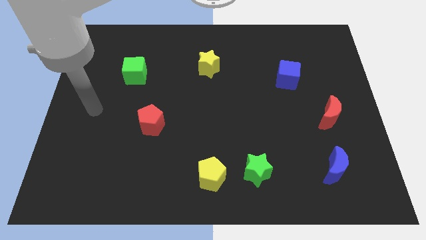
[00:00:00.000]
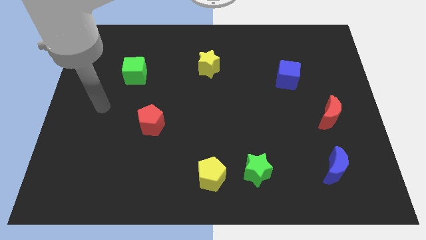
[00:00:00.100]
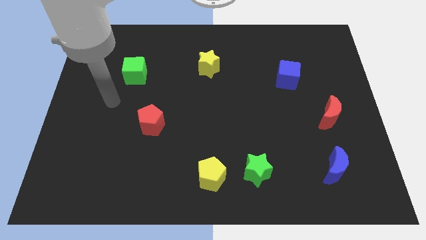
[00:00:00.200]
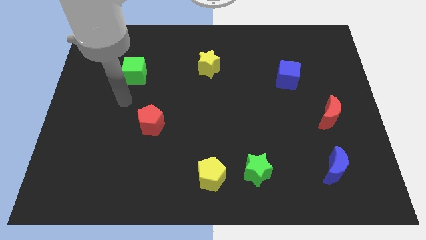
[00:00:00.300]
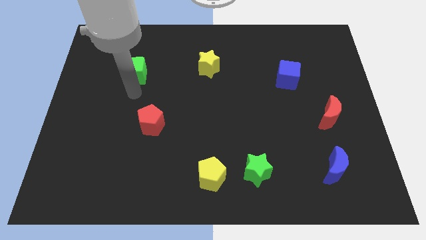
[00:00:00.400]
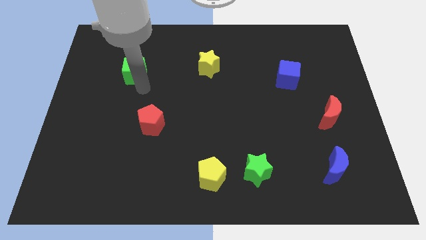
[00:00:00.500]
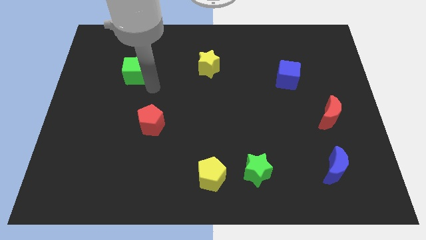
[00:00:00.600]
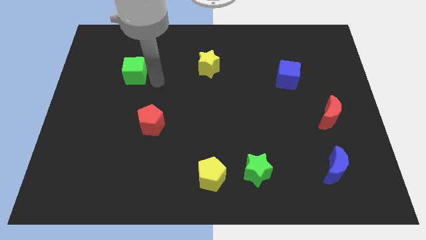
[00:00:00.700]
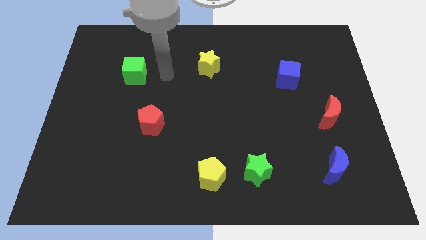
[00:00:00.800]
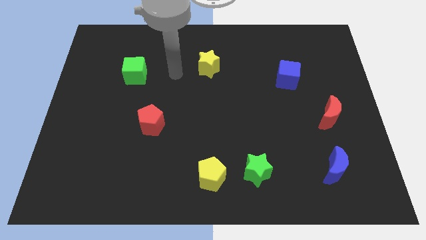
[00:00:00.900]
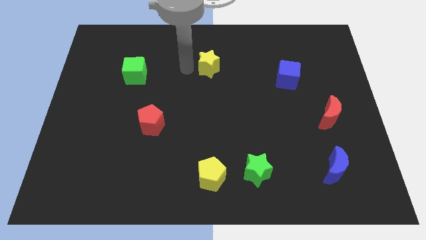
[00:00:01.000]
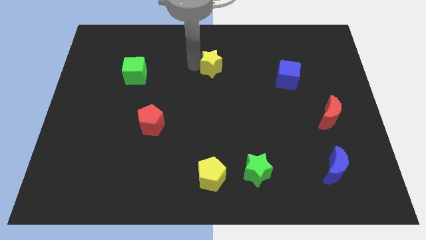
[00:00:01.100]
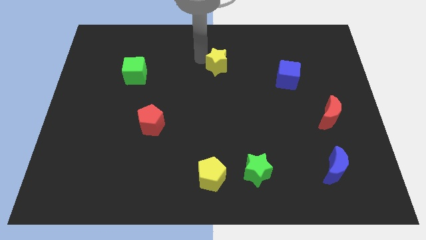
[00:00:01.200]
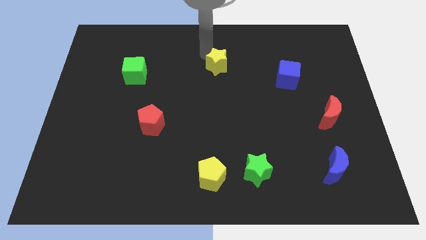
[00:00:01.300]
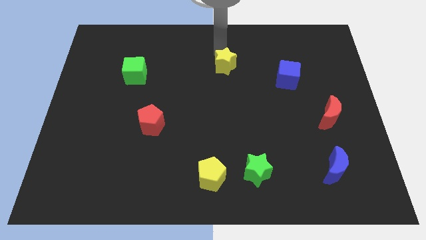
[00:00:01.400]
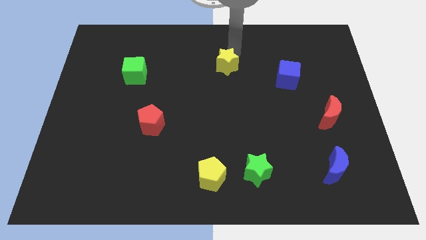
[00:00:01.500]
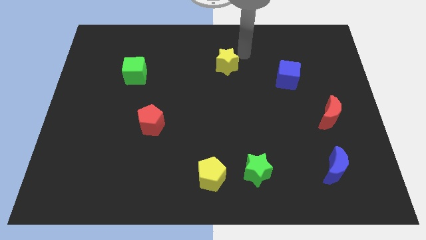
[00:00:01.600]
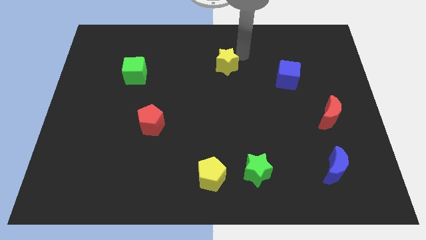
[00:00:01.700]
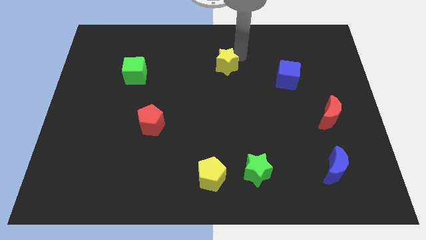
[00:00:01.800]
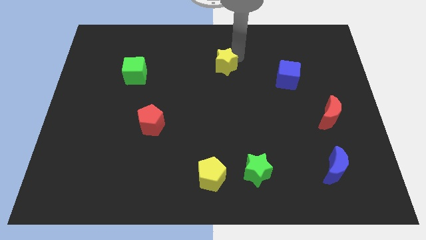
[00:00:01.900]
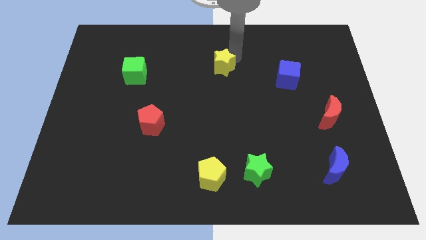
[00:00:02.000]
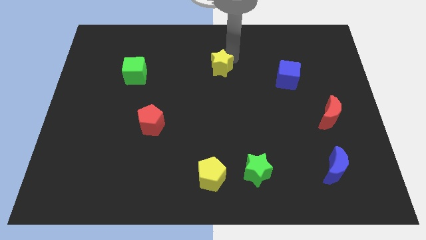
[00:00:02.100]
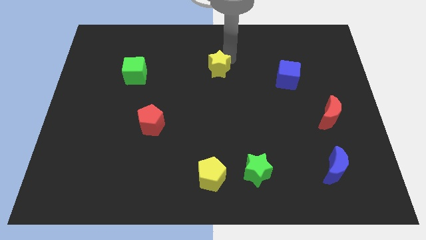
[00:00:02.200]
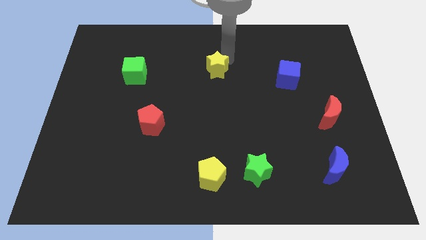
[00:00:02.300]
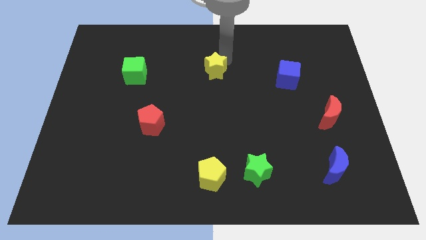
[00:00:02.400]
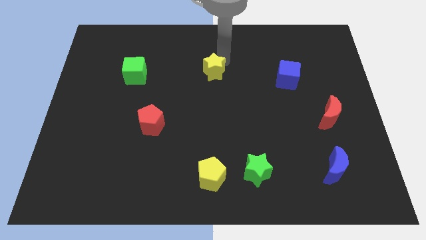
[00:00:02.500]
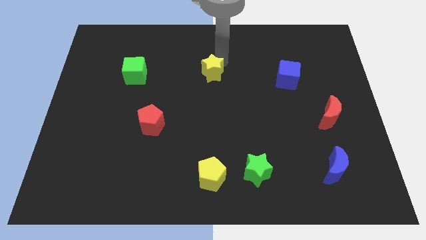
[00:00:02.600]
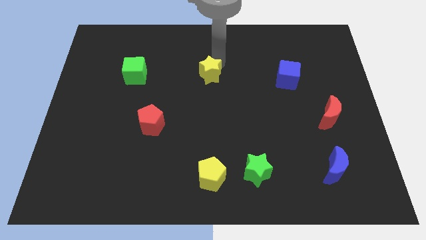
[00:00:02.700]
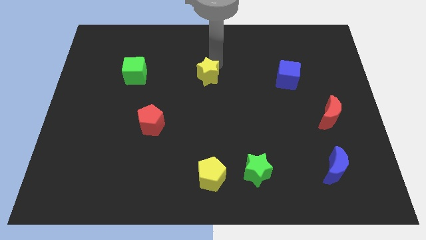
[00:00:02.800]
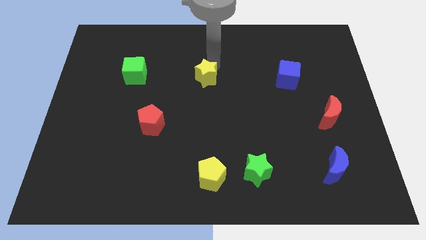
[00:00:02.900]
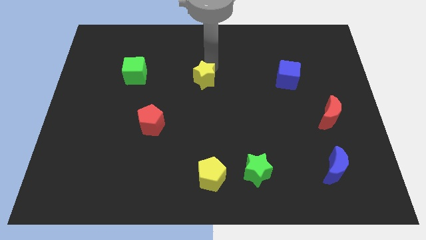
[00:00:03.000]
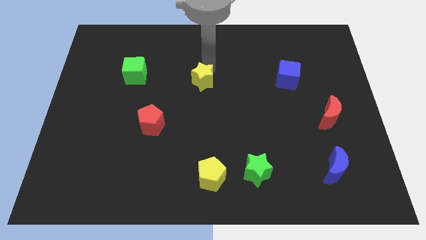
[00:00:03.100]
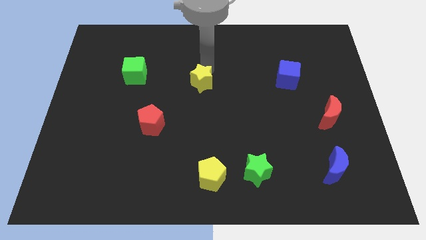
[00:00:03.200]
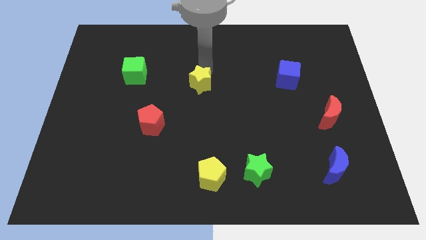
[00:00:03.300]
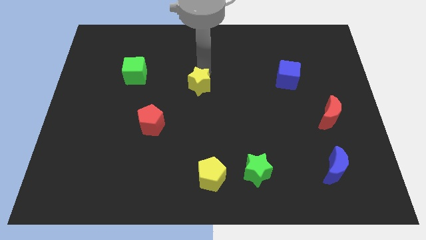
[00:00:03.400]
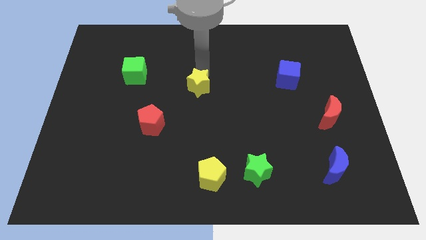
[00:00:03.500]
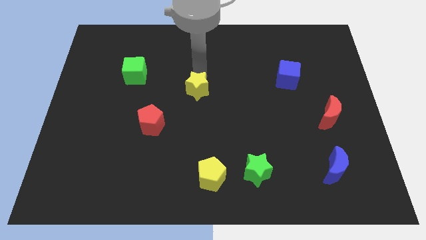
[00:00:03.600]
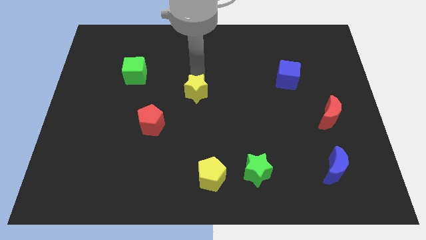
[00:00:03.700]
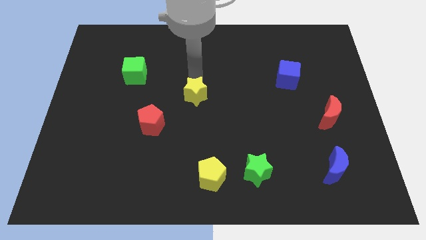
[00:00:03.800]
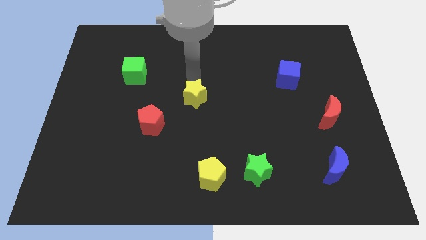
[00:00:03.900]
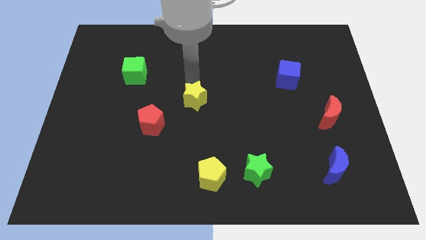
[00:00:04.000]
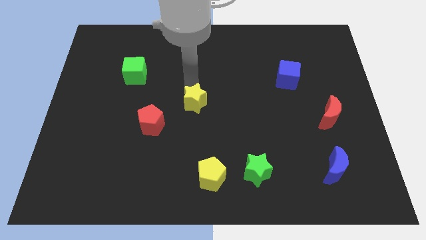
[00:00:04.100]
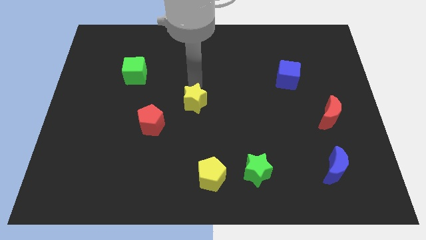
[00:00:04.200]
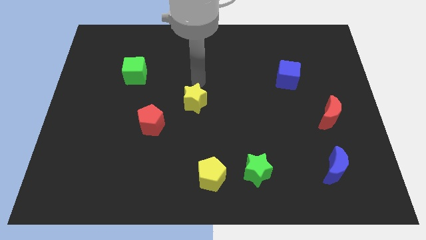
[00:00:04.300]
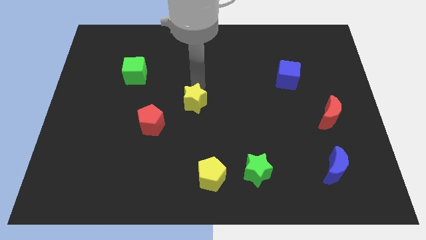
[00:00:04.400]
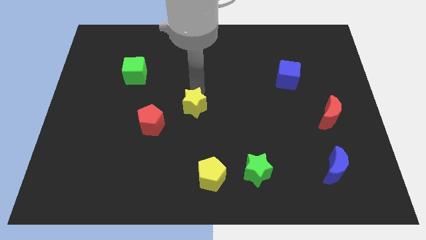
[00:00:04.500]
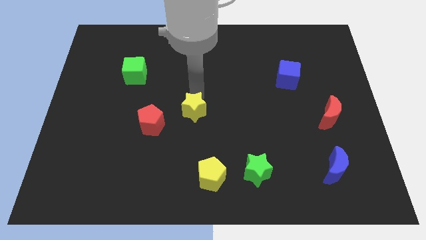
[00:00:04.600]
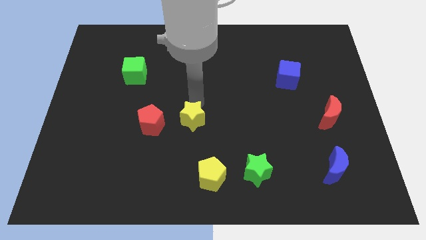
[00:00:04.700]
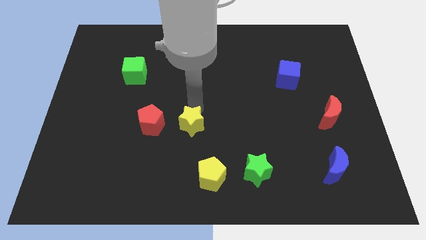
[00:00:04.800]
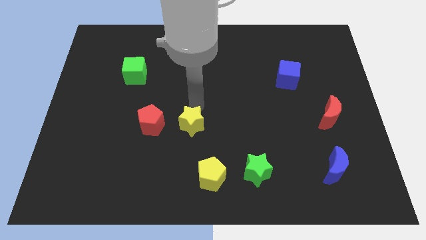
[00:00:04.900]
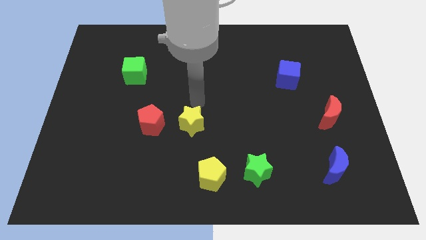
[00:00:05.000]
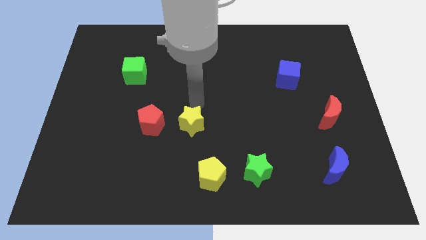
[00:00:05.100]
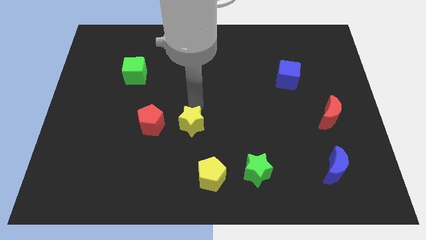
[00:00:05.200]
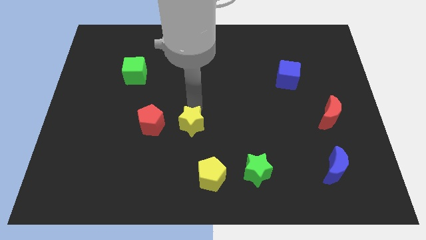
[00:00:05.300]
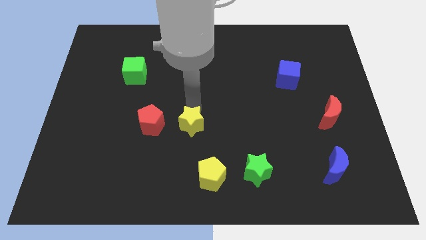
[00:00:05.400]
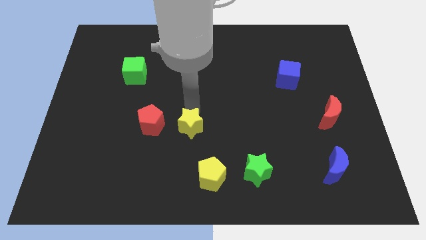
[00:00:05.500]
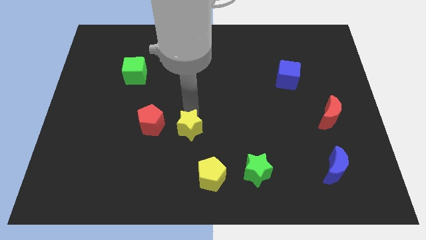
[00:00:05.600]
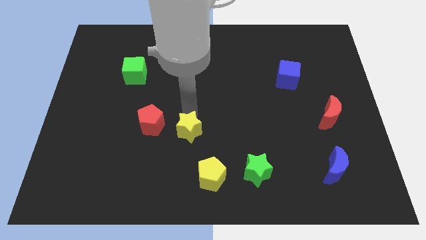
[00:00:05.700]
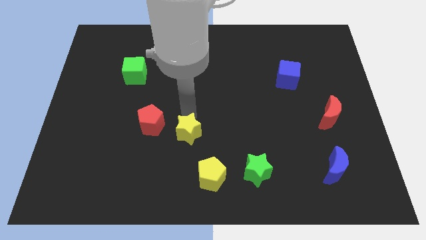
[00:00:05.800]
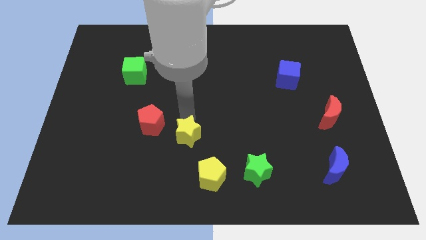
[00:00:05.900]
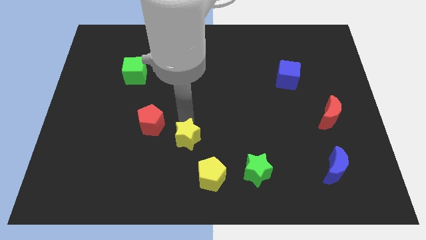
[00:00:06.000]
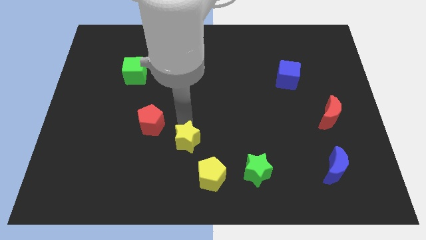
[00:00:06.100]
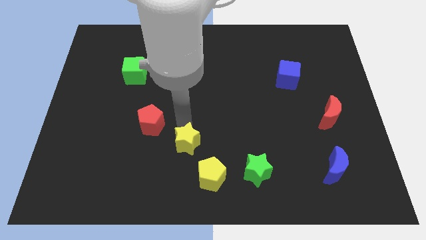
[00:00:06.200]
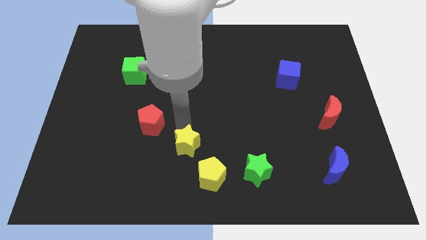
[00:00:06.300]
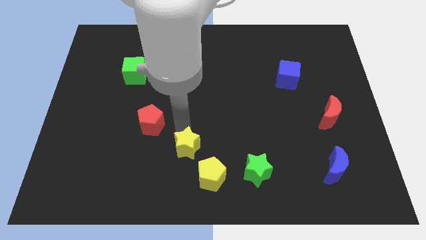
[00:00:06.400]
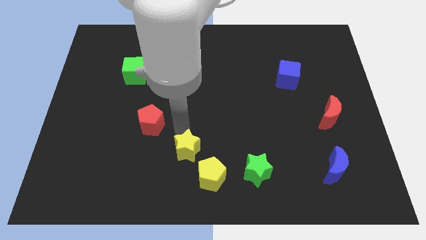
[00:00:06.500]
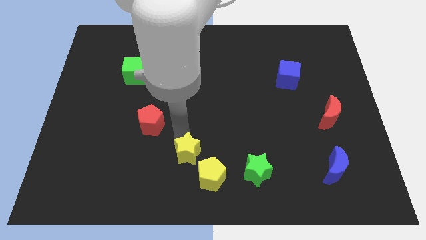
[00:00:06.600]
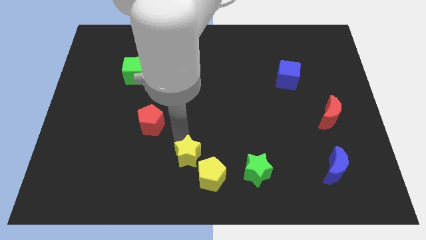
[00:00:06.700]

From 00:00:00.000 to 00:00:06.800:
push the yellow star to the left of the green star
